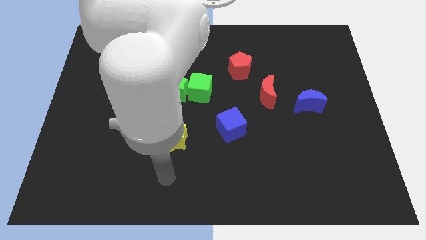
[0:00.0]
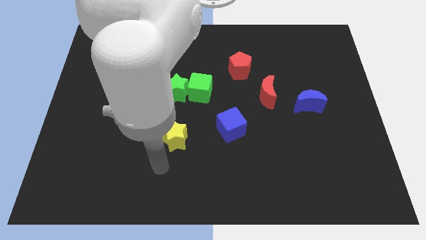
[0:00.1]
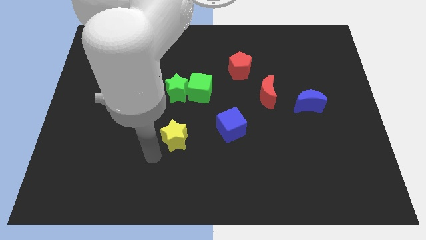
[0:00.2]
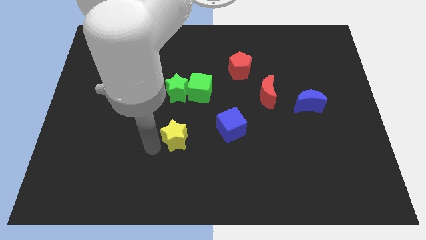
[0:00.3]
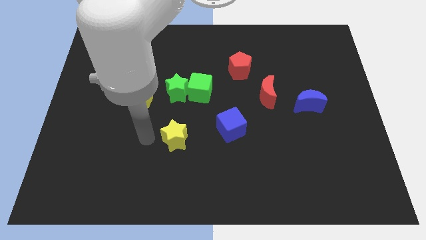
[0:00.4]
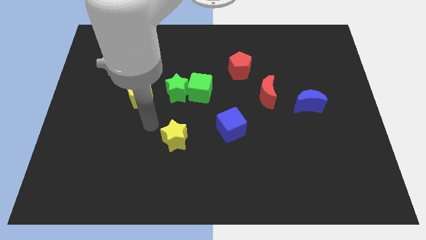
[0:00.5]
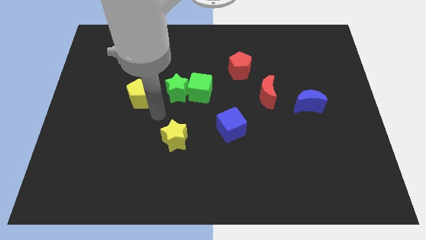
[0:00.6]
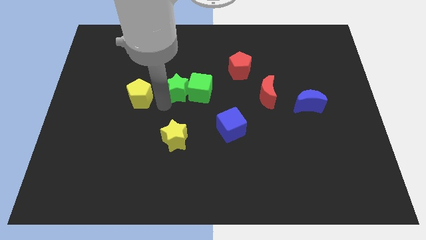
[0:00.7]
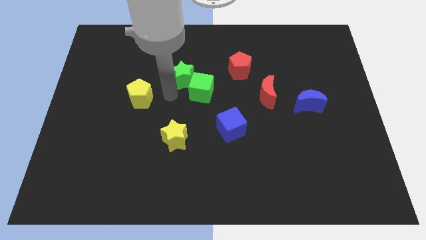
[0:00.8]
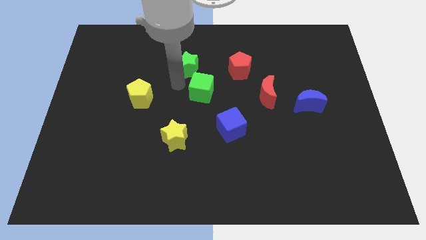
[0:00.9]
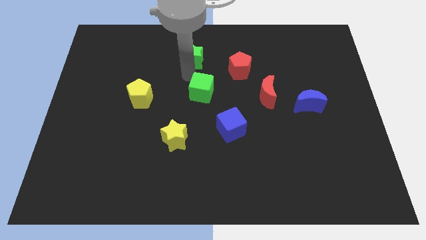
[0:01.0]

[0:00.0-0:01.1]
separate the green cube from the green star

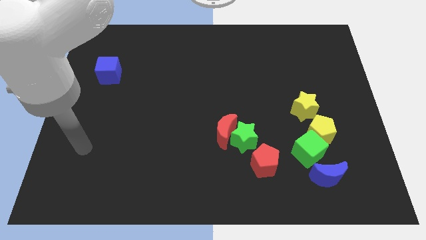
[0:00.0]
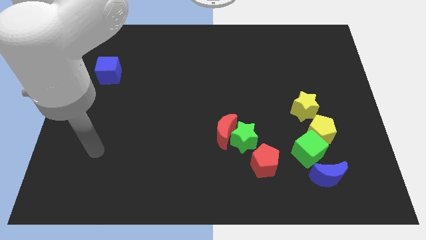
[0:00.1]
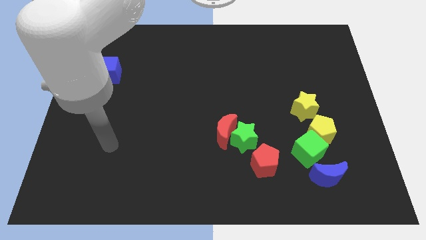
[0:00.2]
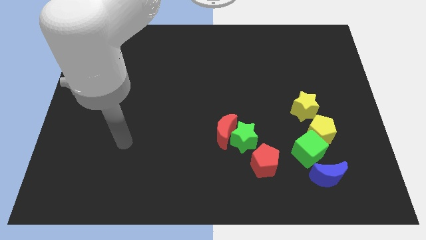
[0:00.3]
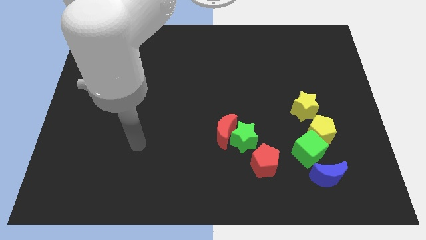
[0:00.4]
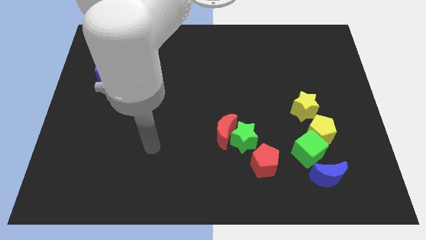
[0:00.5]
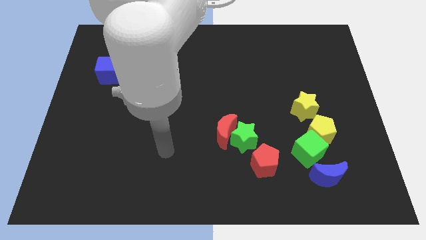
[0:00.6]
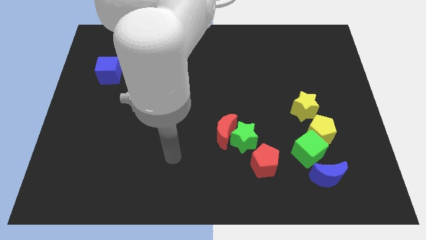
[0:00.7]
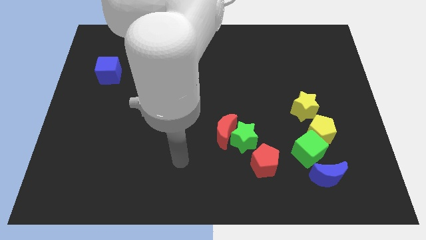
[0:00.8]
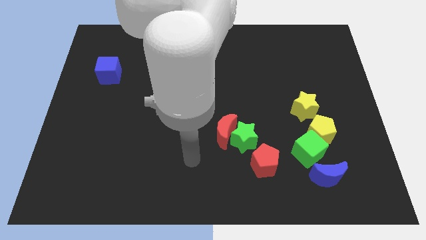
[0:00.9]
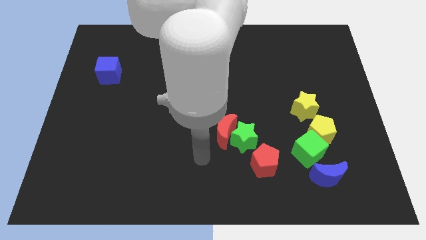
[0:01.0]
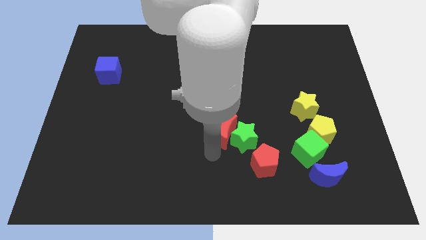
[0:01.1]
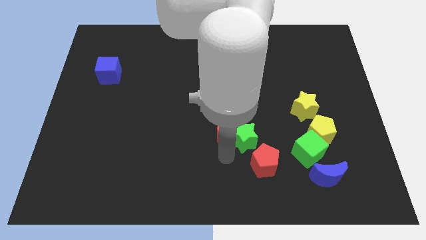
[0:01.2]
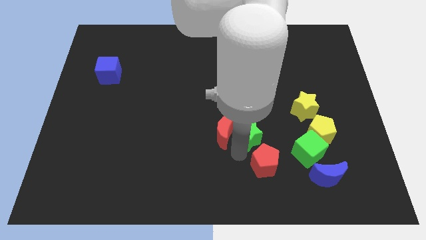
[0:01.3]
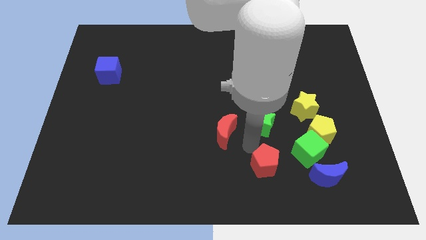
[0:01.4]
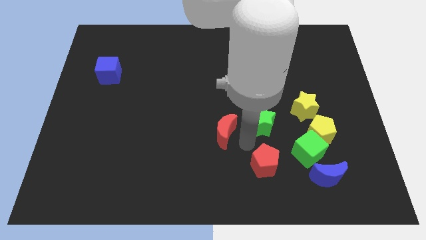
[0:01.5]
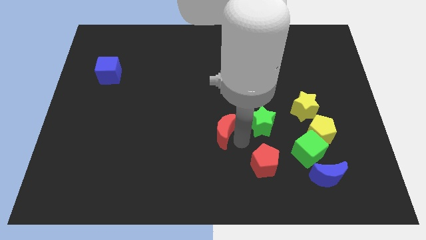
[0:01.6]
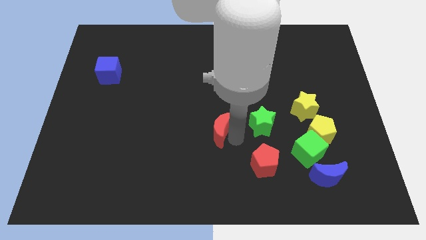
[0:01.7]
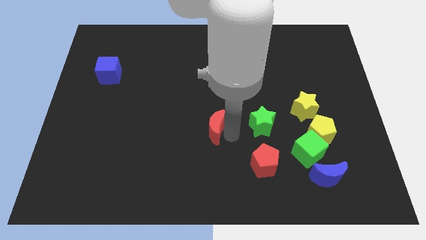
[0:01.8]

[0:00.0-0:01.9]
separate the red moon from the green star

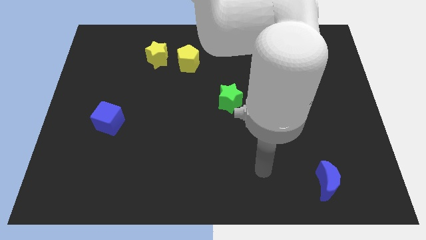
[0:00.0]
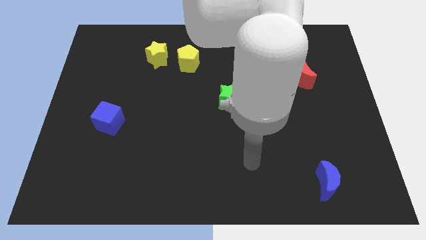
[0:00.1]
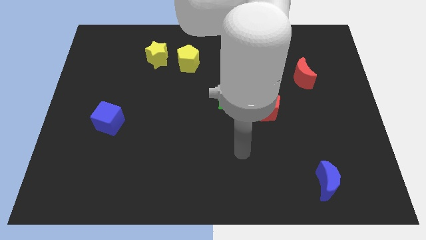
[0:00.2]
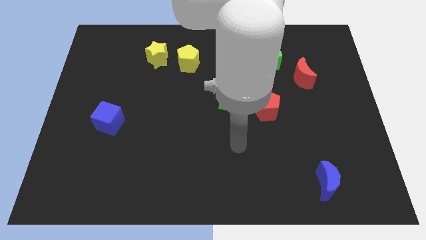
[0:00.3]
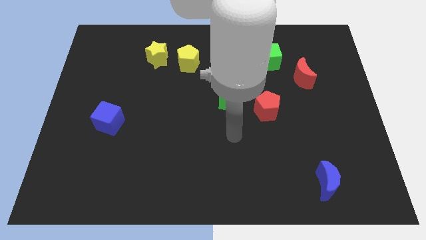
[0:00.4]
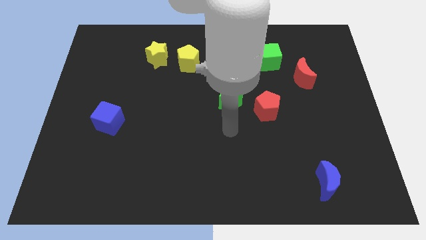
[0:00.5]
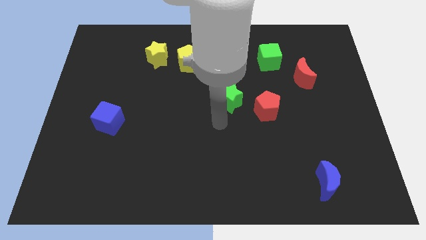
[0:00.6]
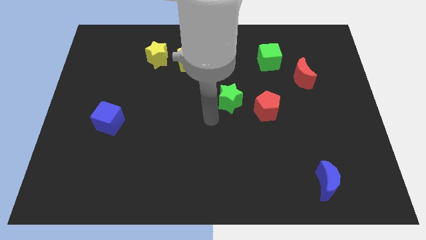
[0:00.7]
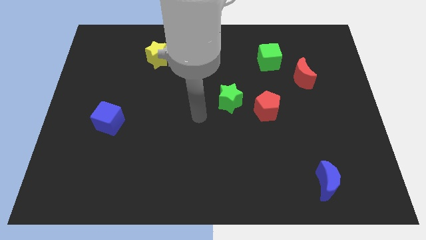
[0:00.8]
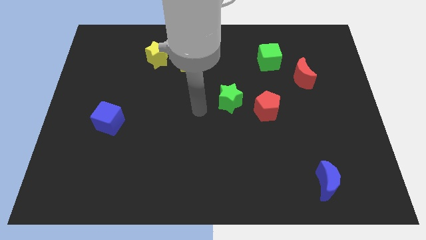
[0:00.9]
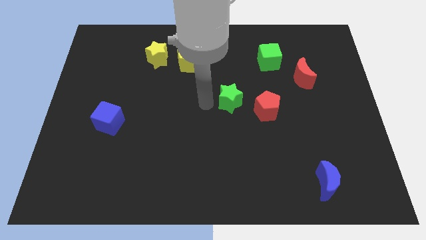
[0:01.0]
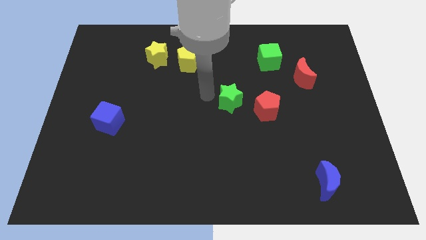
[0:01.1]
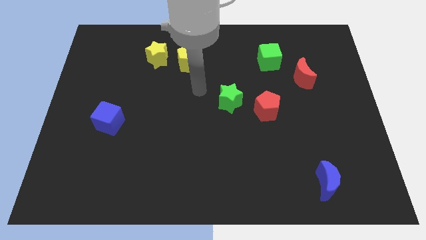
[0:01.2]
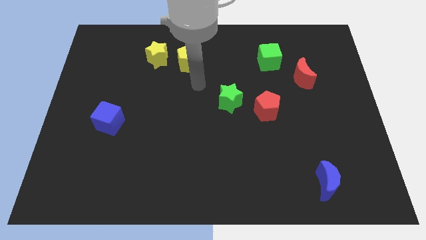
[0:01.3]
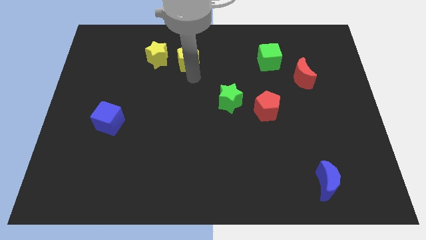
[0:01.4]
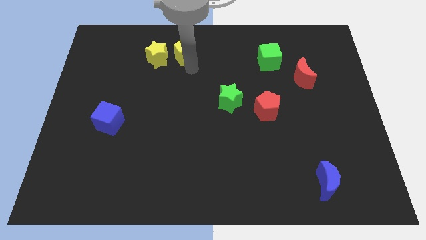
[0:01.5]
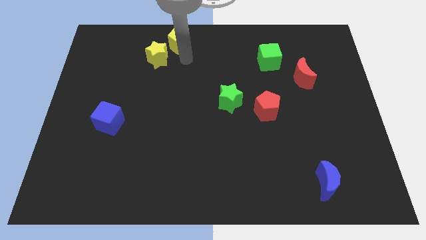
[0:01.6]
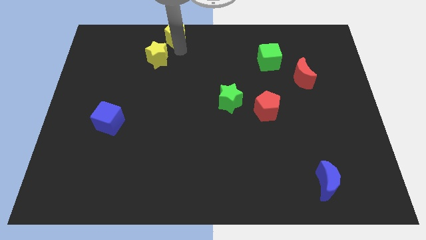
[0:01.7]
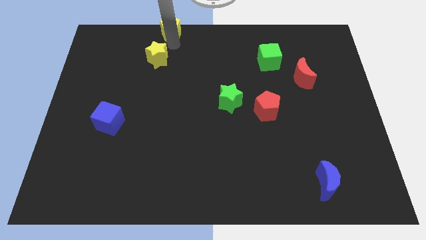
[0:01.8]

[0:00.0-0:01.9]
separate the yellow star from the yellow pentagon

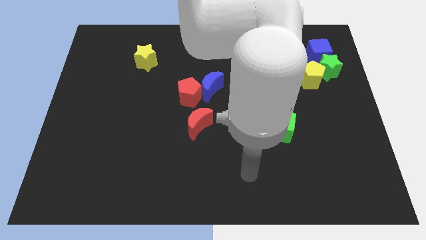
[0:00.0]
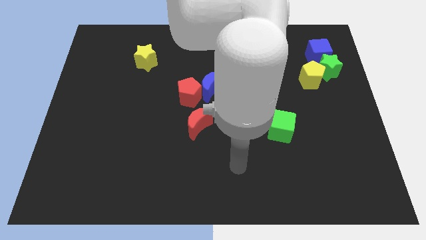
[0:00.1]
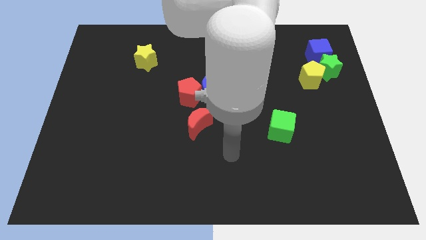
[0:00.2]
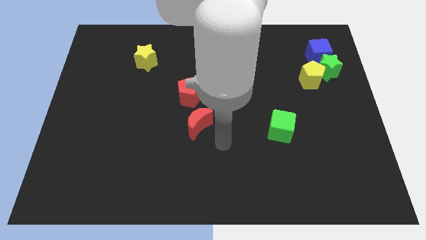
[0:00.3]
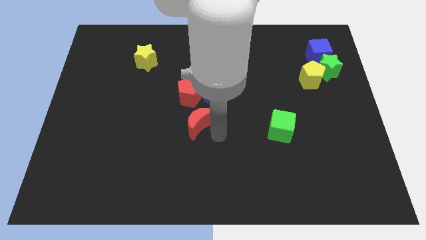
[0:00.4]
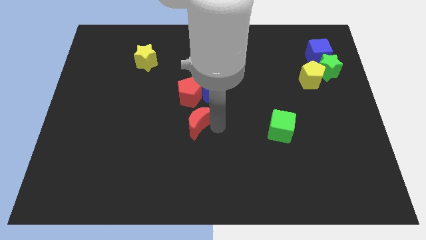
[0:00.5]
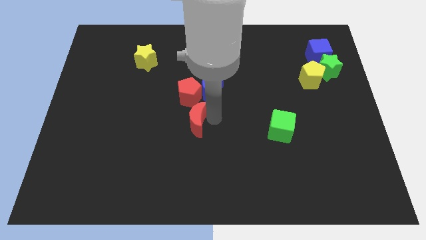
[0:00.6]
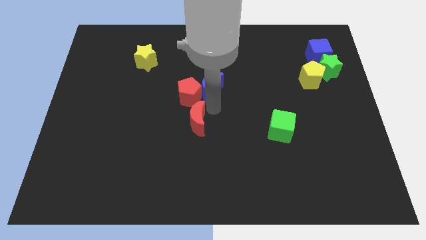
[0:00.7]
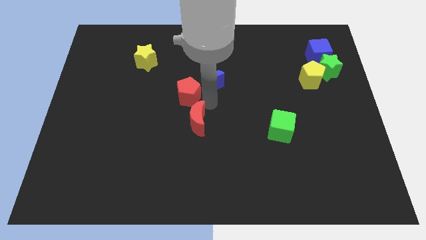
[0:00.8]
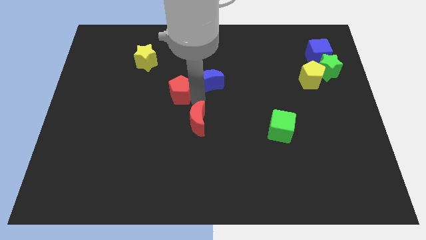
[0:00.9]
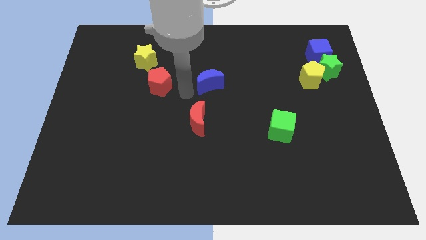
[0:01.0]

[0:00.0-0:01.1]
separate the blue moon from the red pentagon

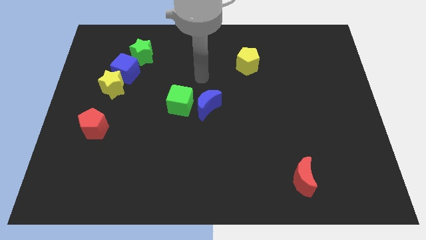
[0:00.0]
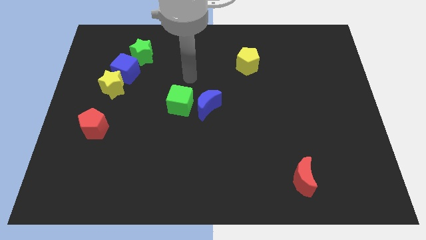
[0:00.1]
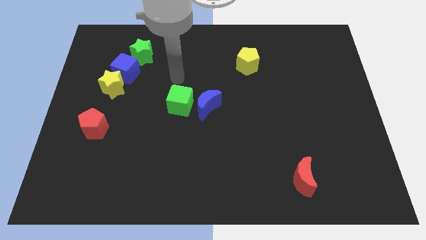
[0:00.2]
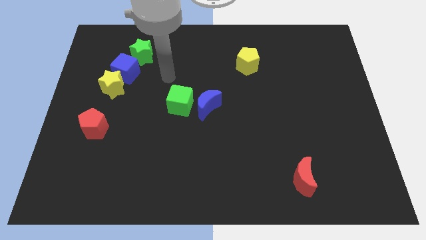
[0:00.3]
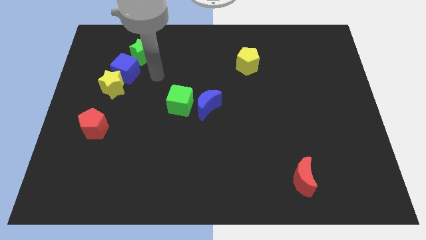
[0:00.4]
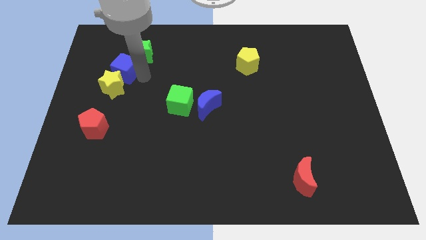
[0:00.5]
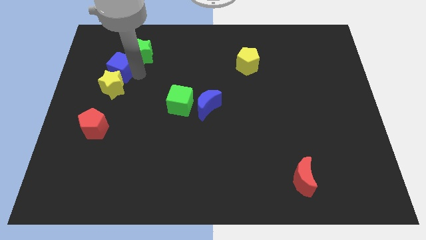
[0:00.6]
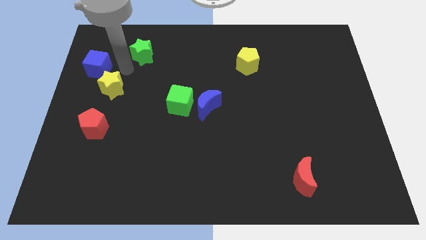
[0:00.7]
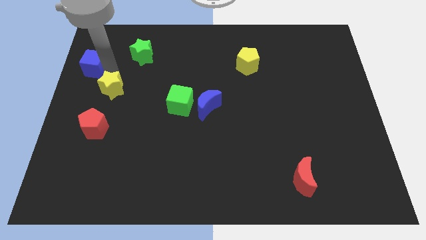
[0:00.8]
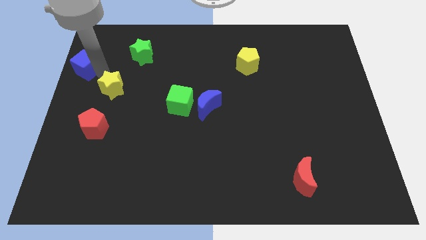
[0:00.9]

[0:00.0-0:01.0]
separate the yellow star from the blue cube

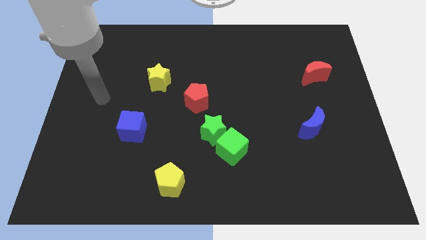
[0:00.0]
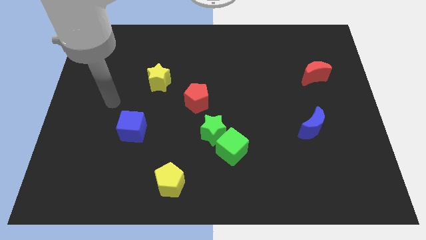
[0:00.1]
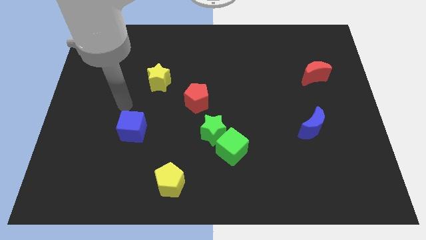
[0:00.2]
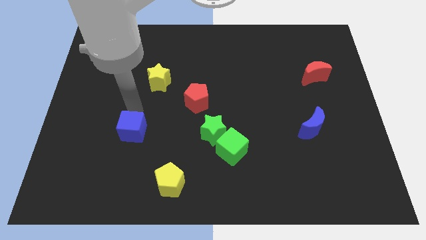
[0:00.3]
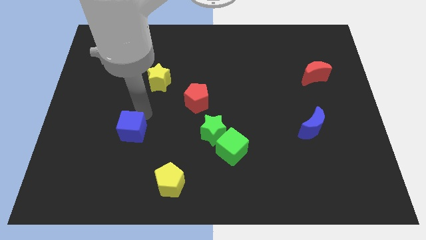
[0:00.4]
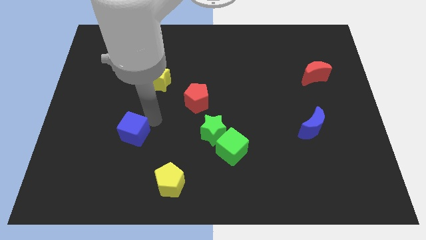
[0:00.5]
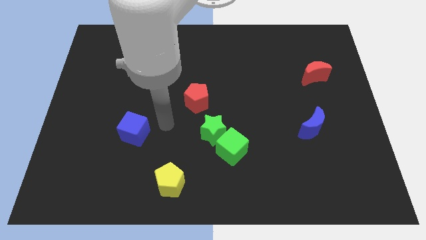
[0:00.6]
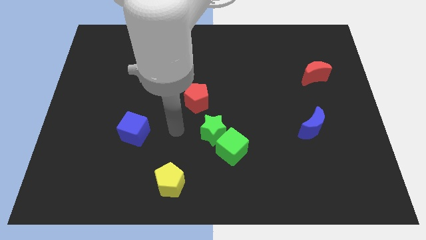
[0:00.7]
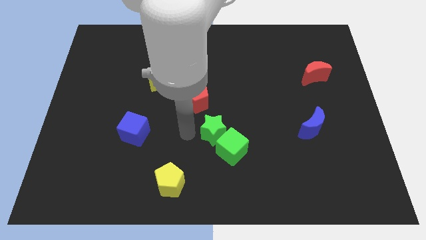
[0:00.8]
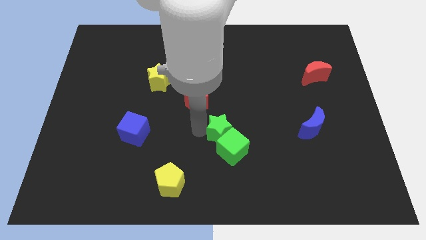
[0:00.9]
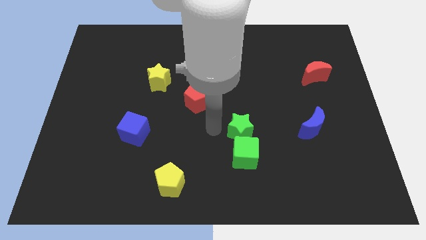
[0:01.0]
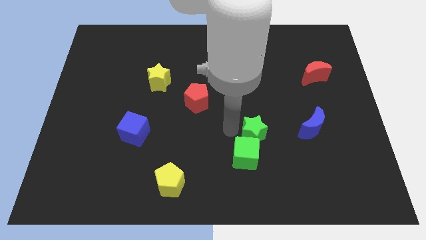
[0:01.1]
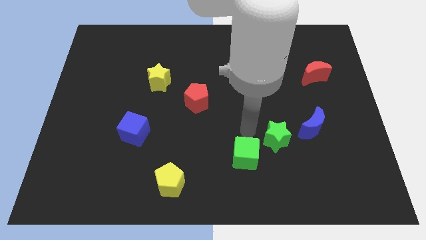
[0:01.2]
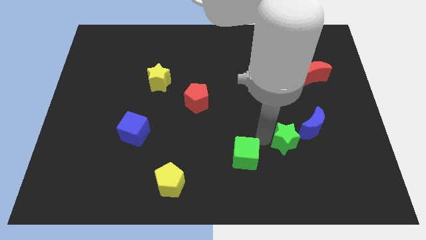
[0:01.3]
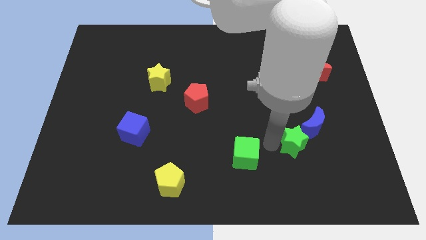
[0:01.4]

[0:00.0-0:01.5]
pull the green cube apart from the green star

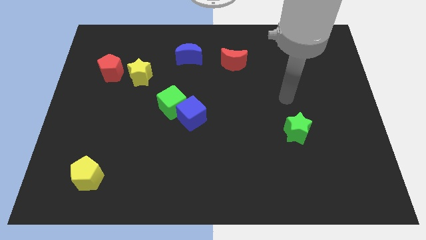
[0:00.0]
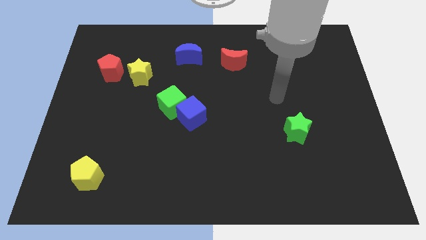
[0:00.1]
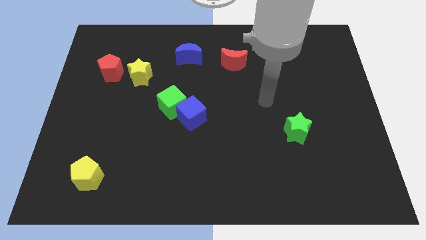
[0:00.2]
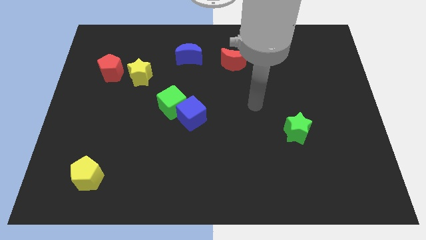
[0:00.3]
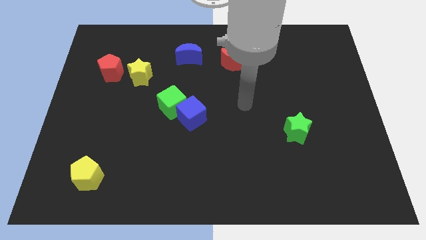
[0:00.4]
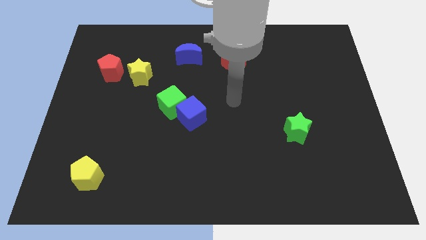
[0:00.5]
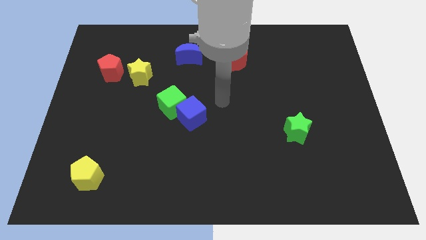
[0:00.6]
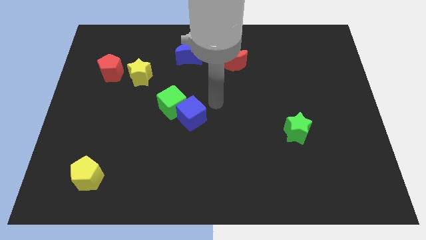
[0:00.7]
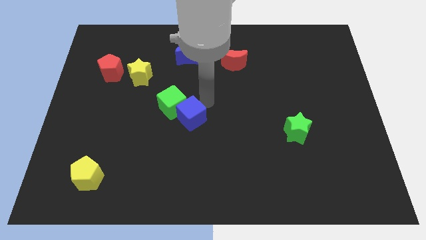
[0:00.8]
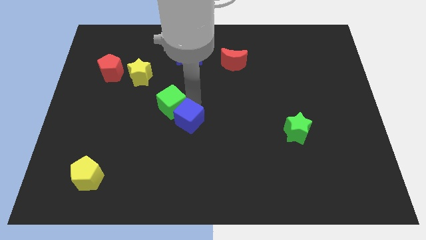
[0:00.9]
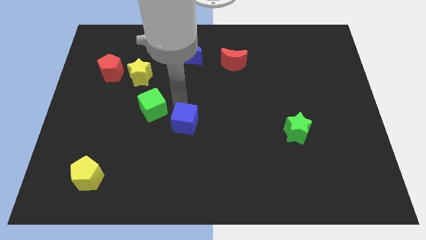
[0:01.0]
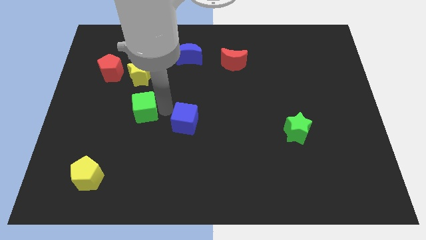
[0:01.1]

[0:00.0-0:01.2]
pull the blue cube apart from the green cube
